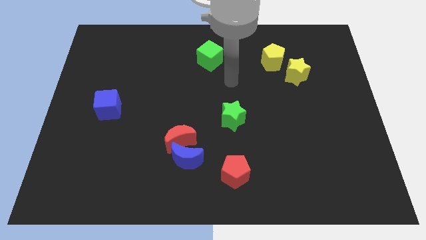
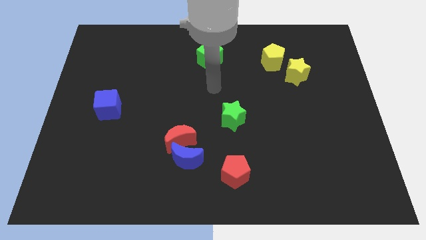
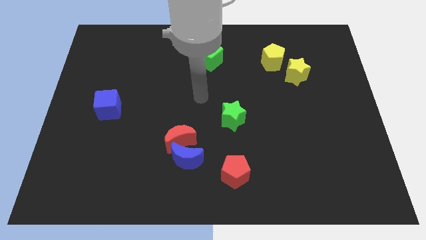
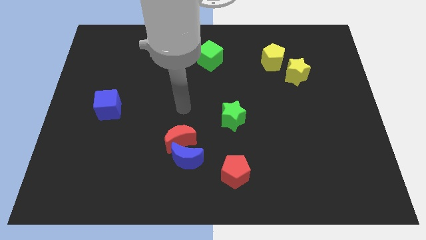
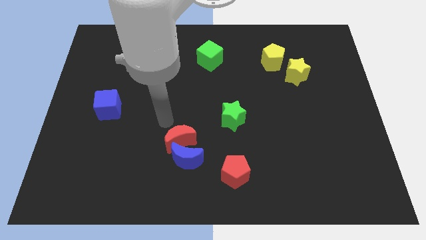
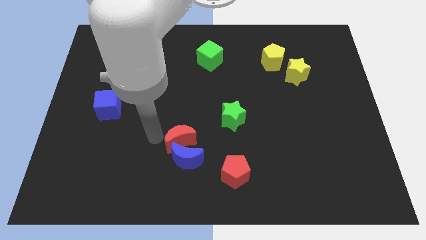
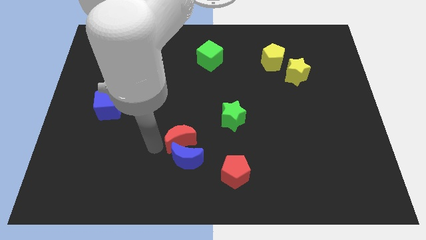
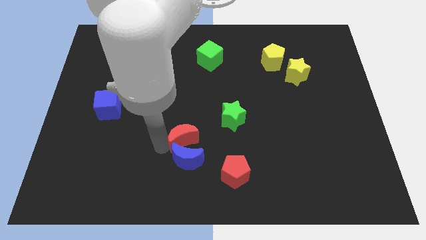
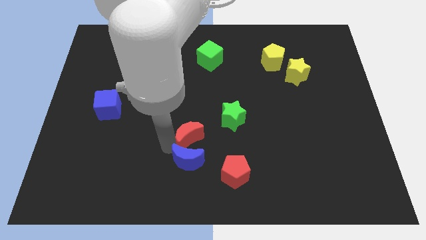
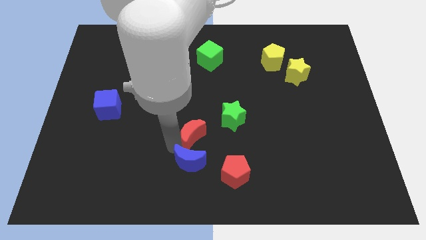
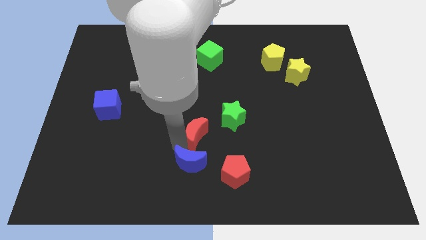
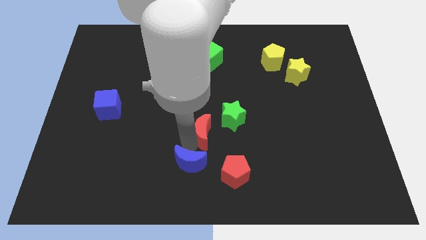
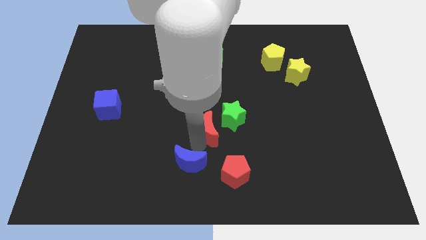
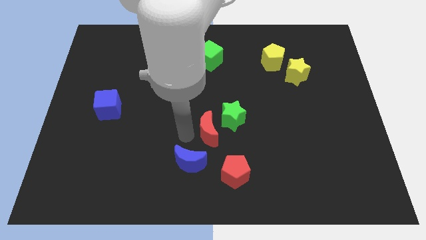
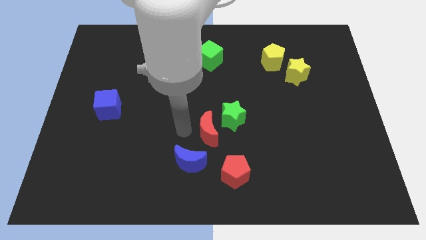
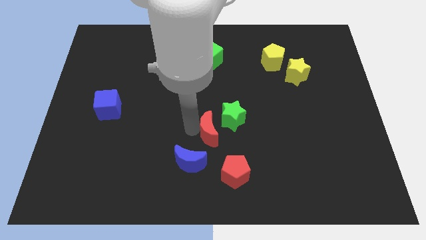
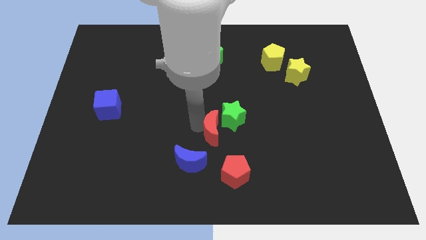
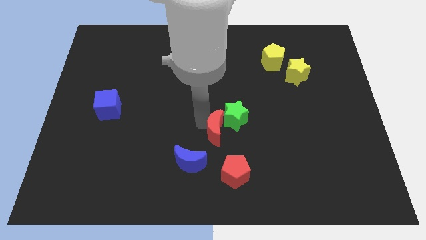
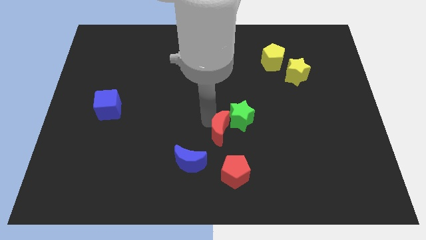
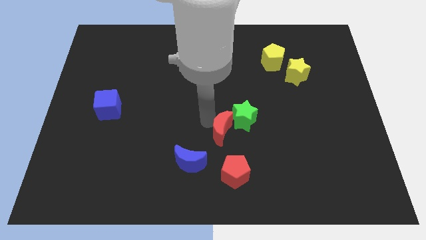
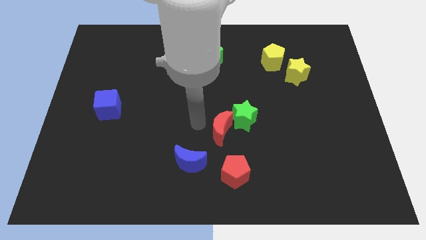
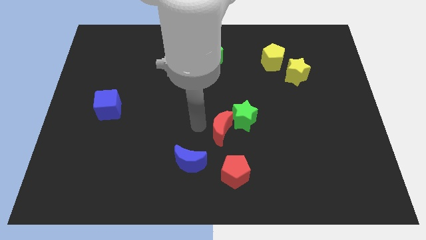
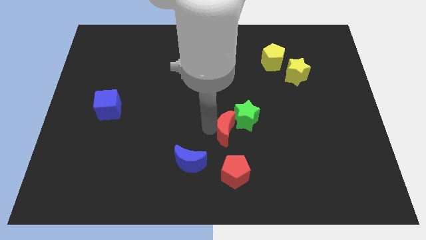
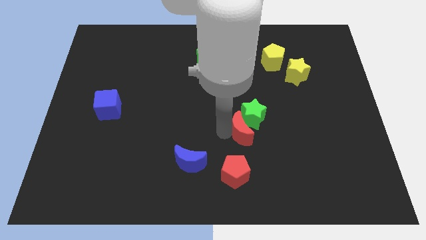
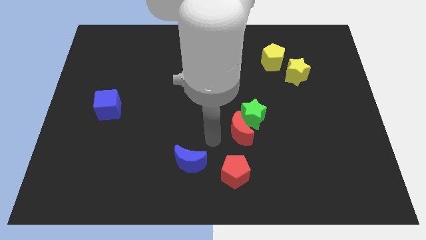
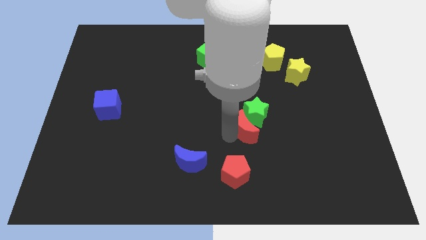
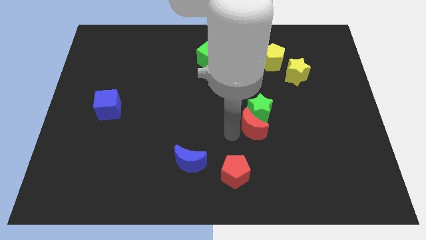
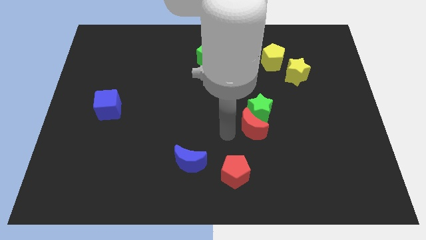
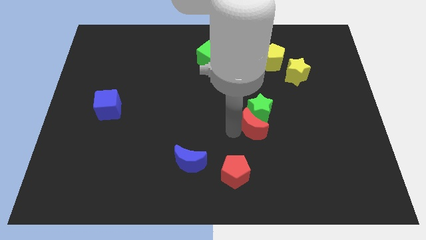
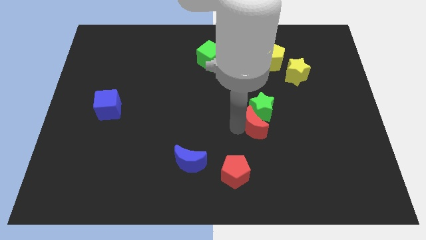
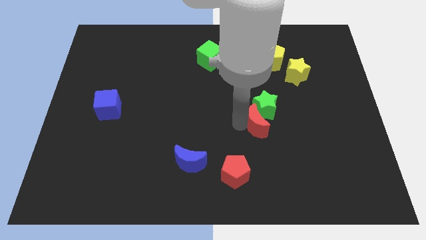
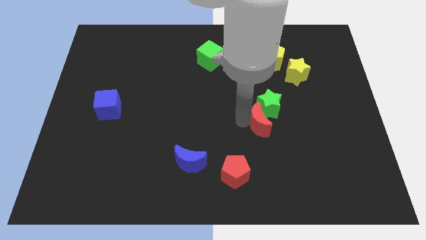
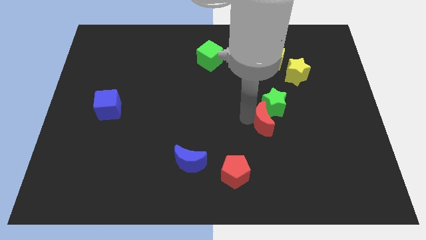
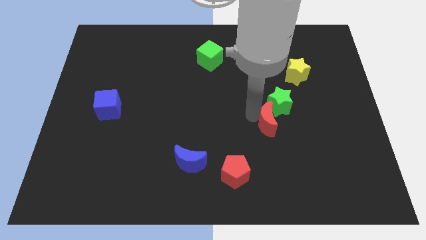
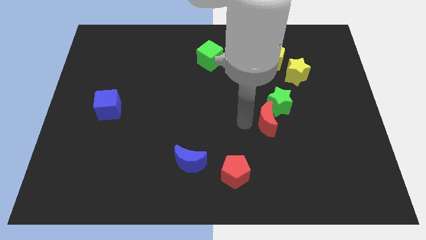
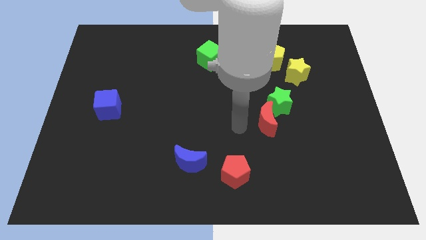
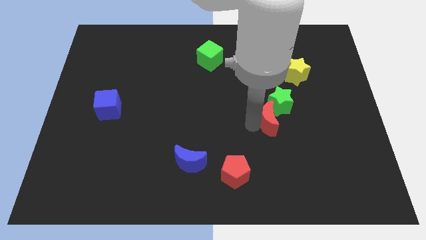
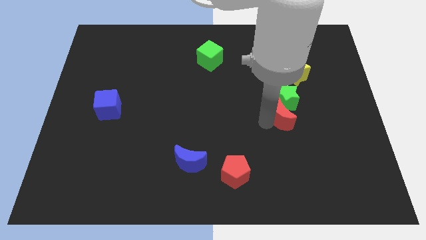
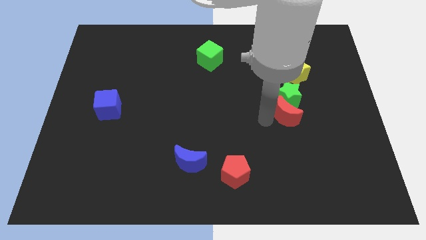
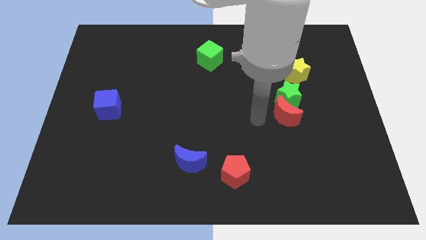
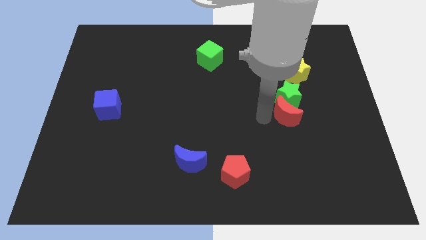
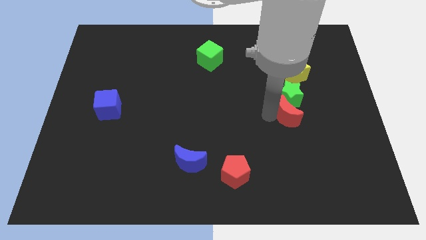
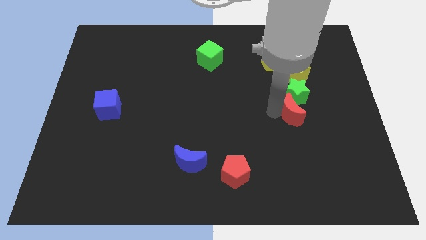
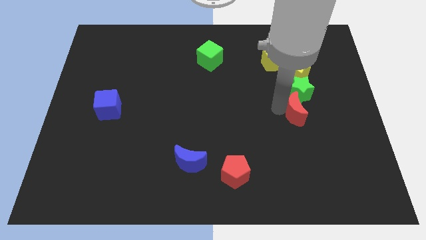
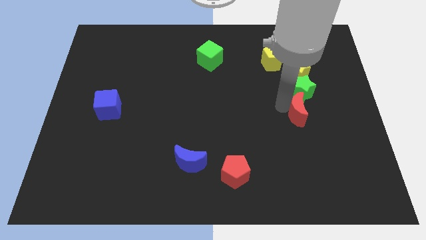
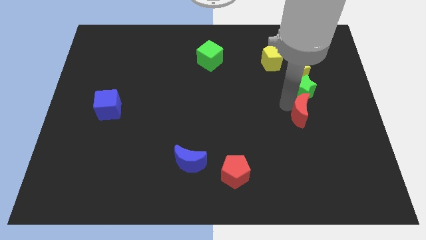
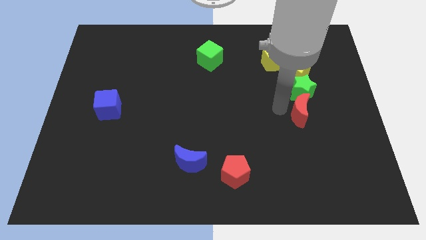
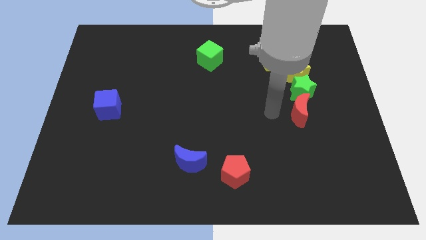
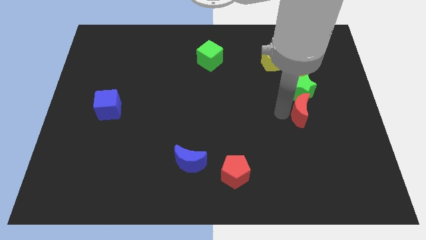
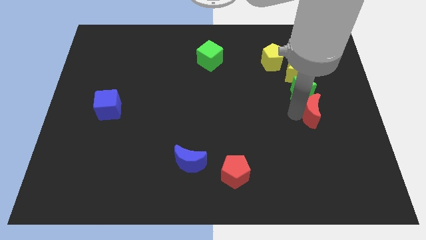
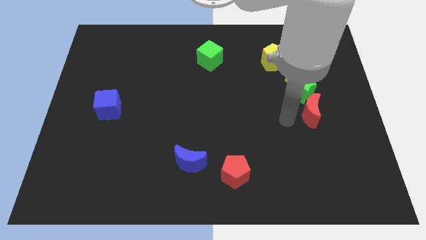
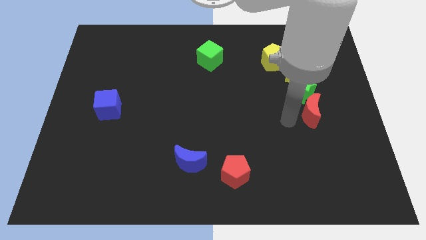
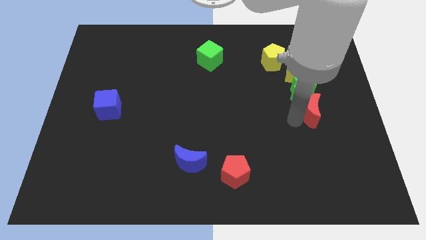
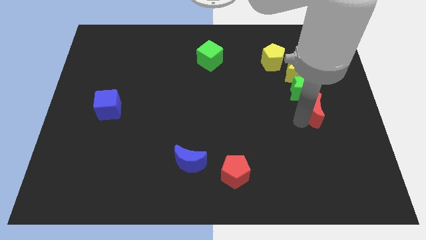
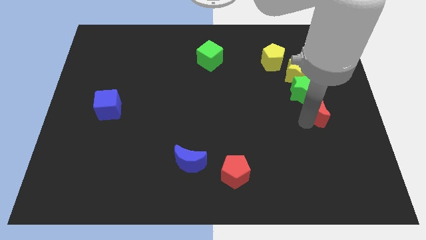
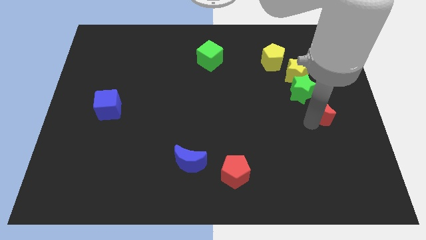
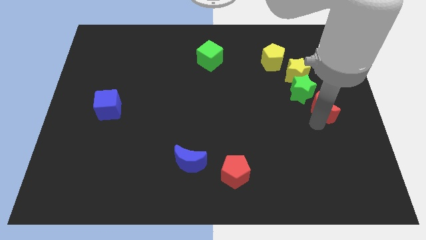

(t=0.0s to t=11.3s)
slide the red moon to the center right
